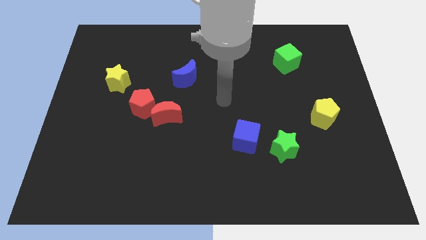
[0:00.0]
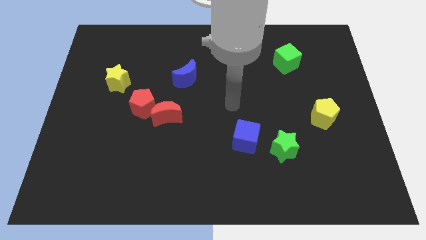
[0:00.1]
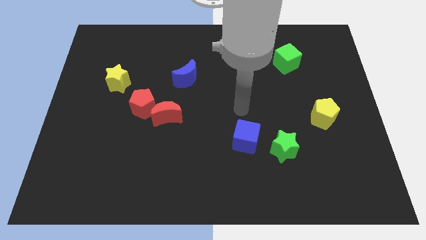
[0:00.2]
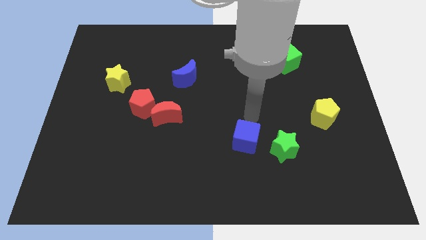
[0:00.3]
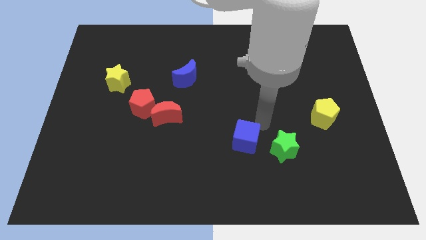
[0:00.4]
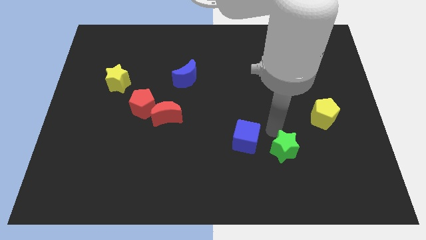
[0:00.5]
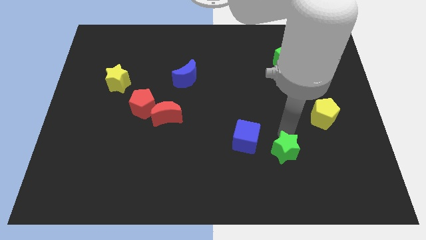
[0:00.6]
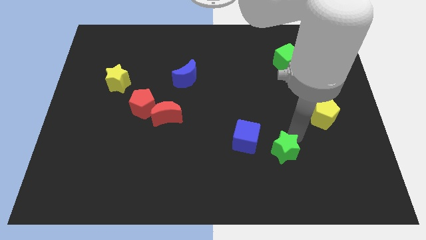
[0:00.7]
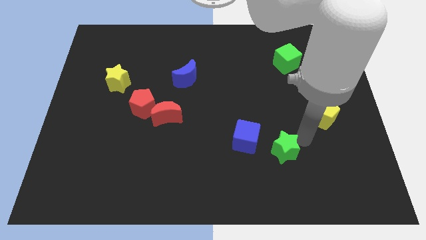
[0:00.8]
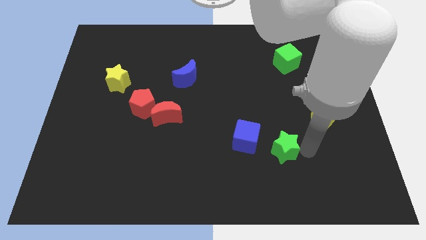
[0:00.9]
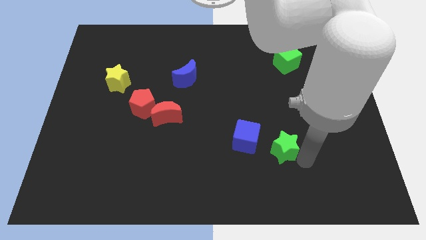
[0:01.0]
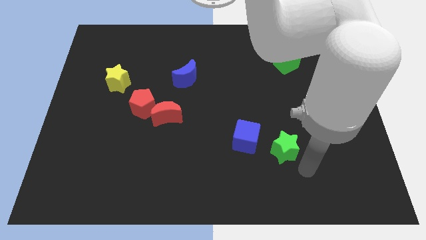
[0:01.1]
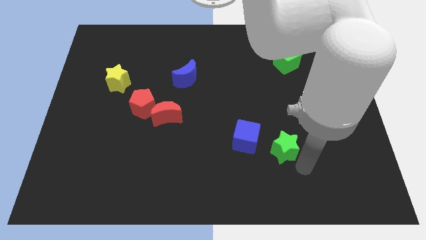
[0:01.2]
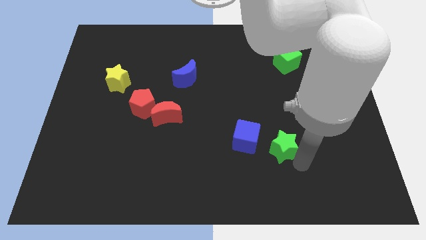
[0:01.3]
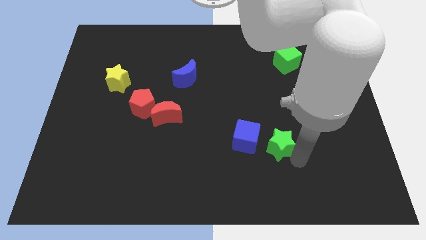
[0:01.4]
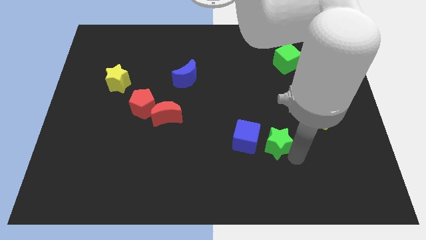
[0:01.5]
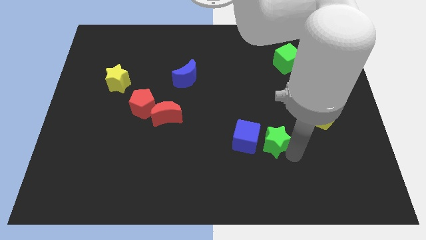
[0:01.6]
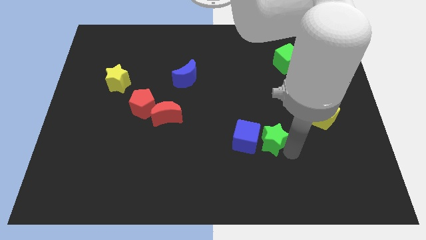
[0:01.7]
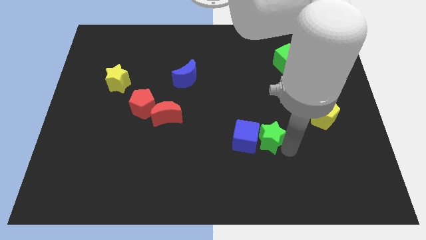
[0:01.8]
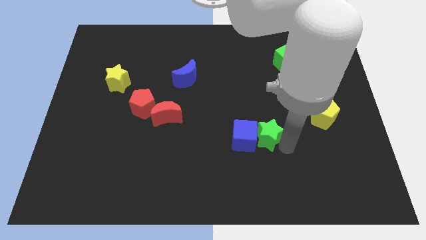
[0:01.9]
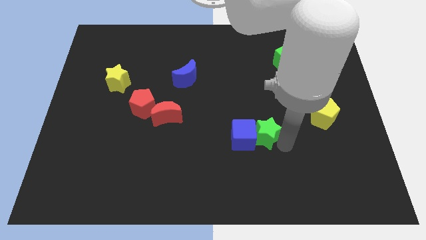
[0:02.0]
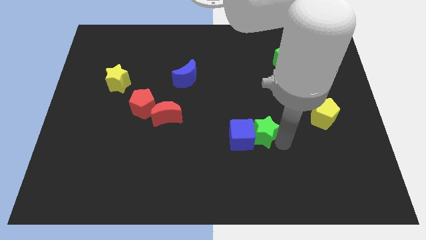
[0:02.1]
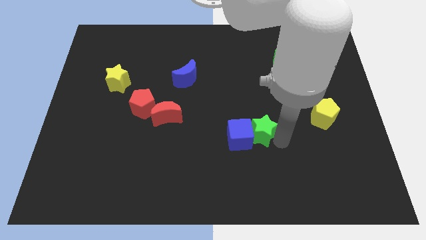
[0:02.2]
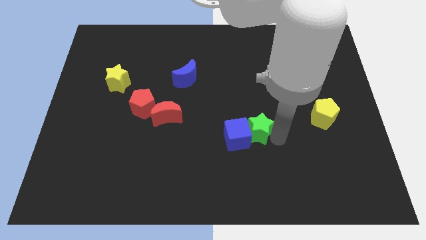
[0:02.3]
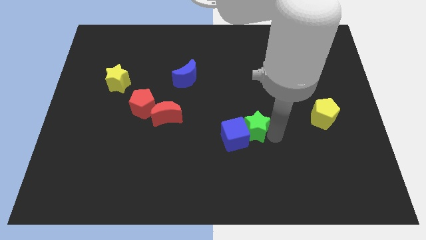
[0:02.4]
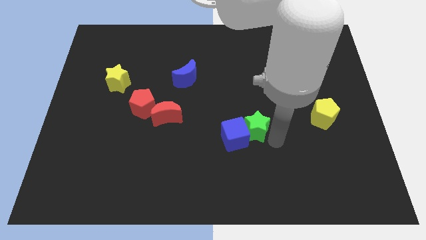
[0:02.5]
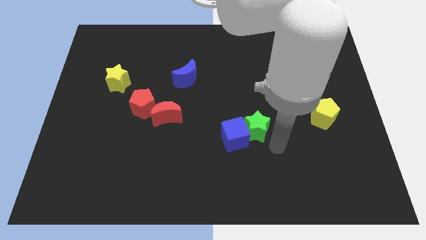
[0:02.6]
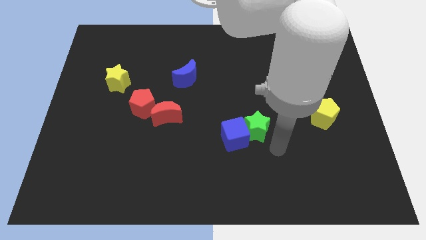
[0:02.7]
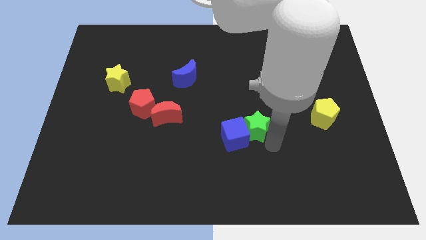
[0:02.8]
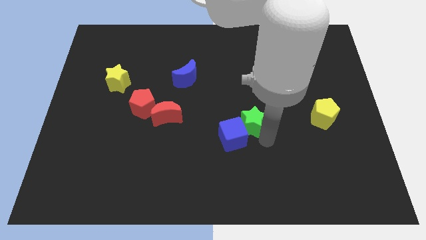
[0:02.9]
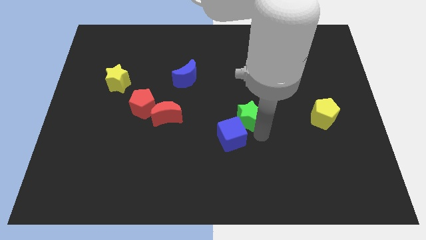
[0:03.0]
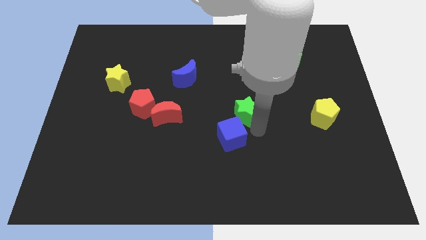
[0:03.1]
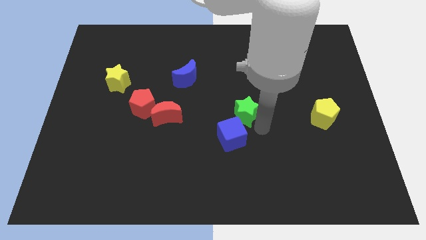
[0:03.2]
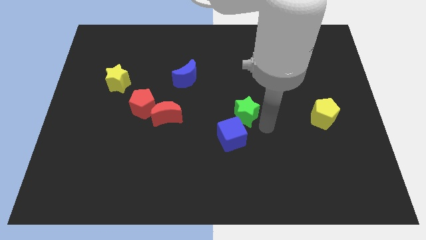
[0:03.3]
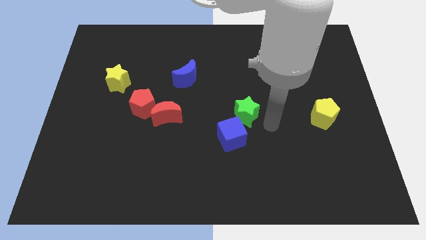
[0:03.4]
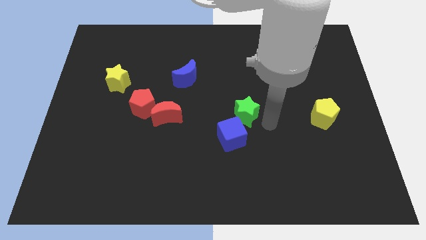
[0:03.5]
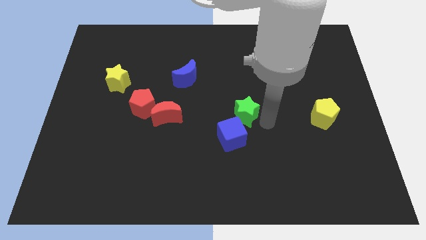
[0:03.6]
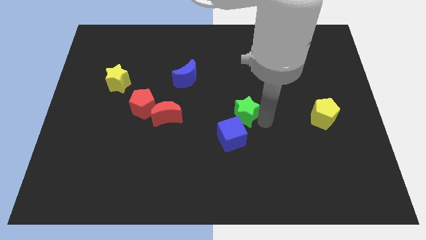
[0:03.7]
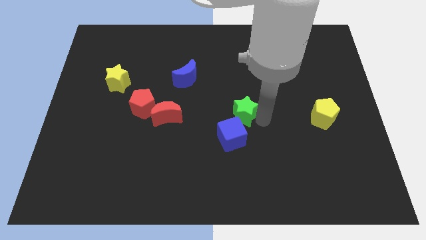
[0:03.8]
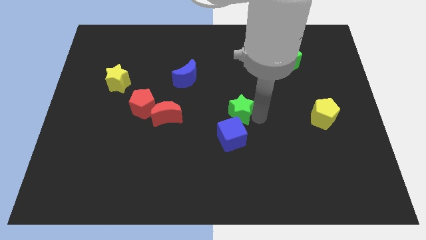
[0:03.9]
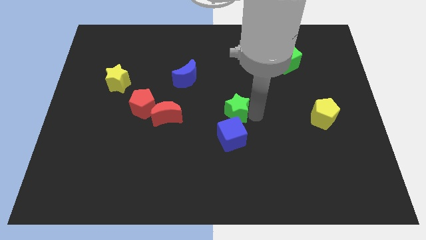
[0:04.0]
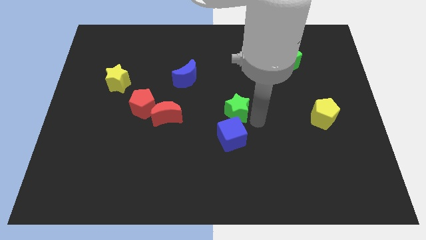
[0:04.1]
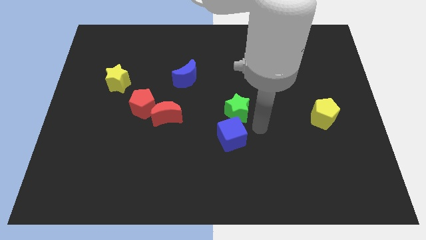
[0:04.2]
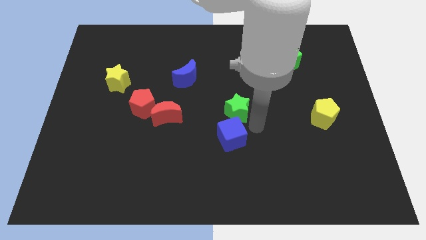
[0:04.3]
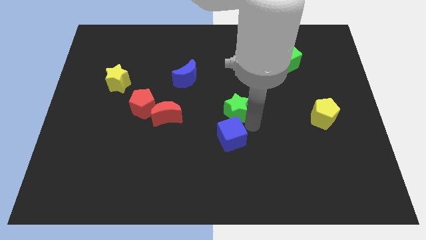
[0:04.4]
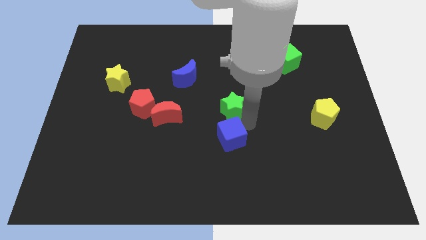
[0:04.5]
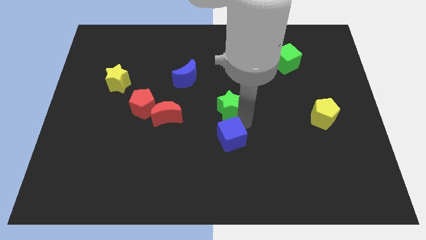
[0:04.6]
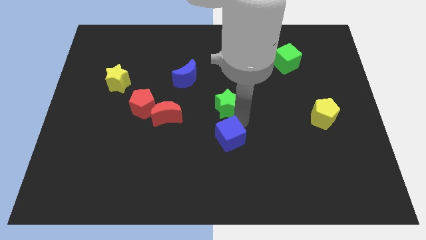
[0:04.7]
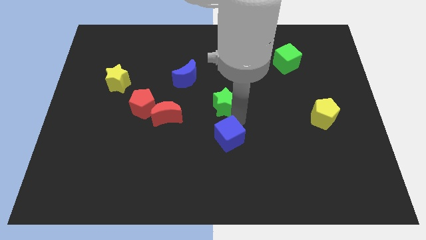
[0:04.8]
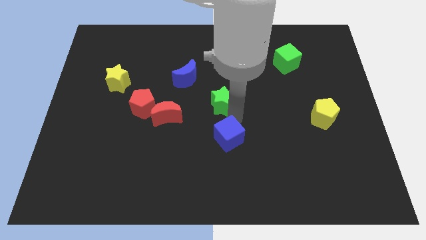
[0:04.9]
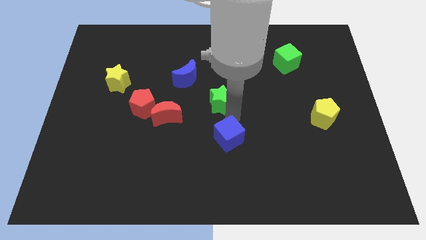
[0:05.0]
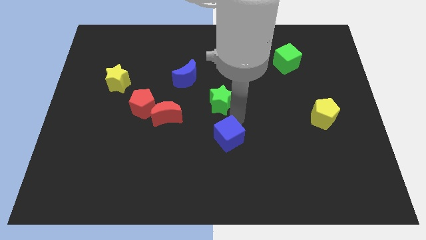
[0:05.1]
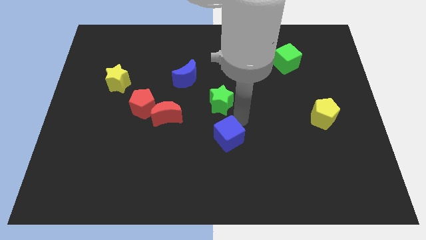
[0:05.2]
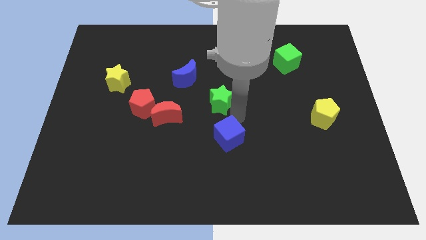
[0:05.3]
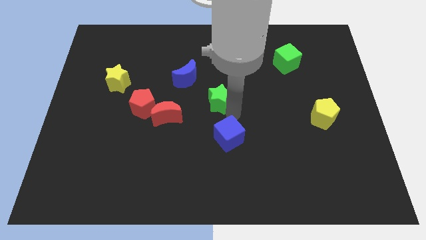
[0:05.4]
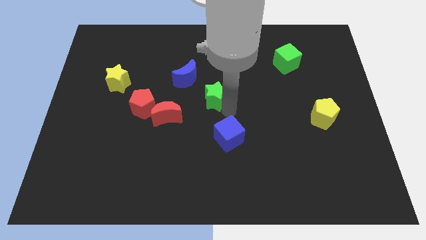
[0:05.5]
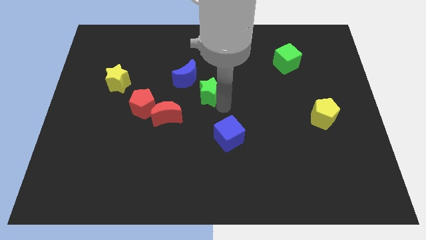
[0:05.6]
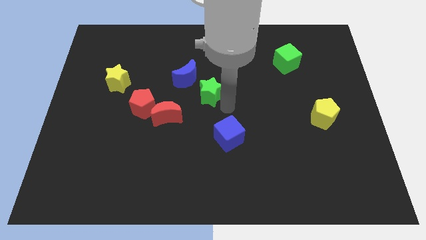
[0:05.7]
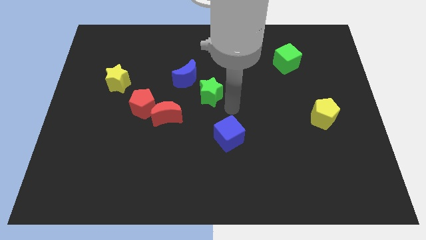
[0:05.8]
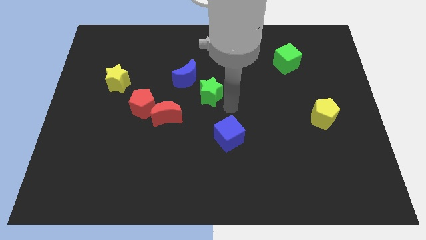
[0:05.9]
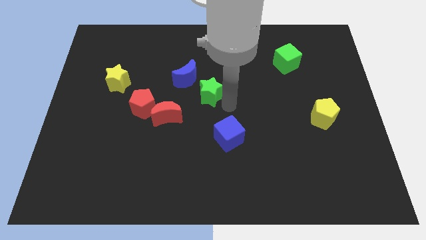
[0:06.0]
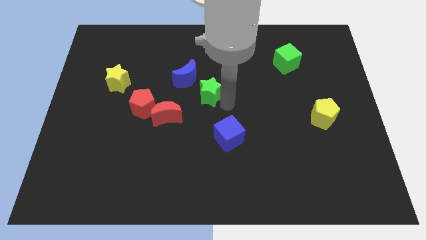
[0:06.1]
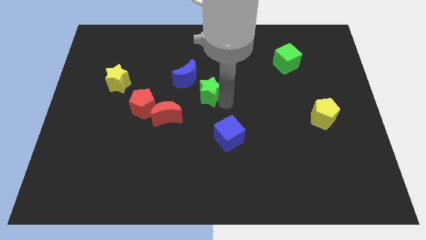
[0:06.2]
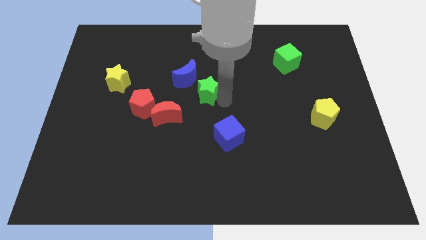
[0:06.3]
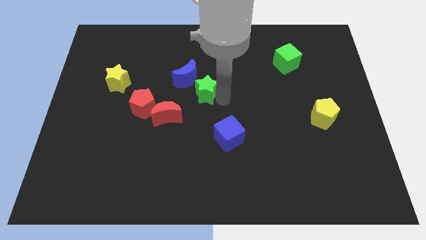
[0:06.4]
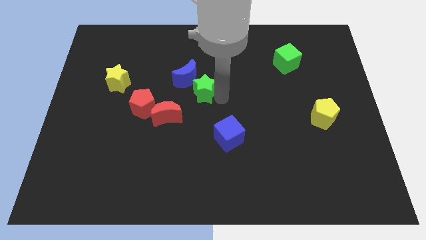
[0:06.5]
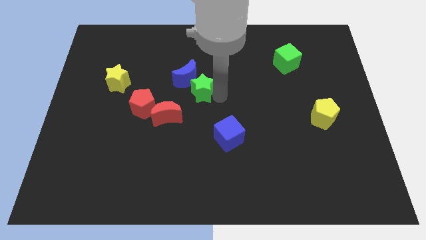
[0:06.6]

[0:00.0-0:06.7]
put the green star next to the blue moon
